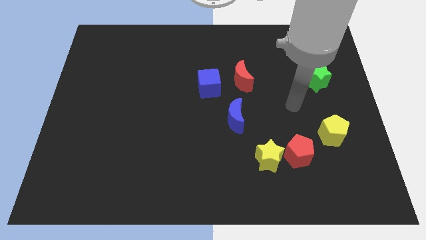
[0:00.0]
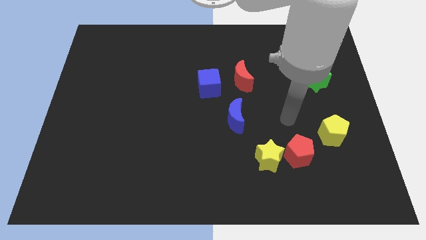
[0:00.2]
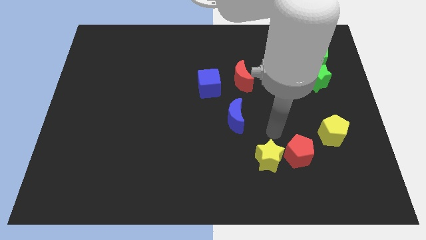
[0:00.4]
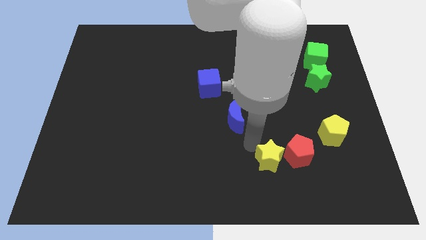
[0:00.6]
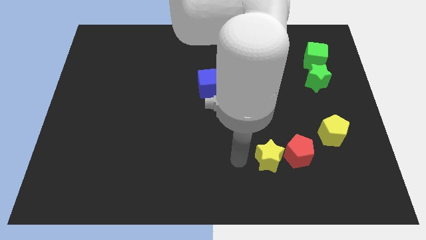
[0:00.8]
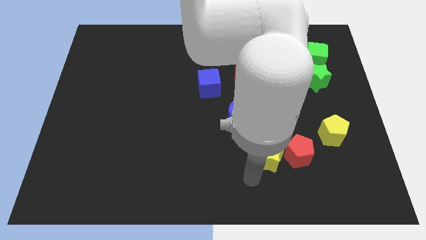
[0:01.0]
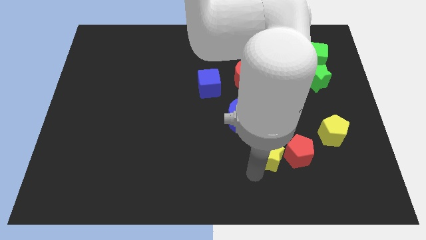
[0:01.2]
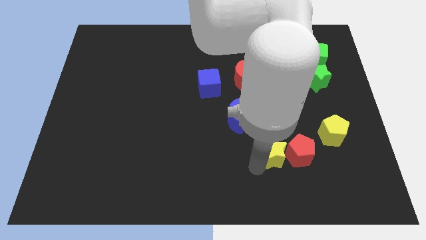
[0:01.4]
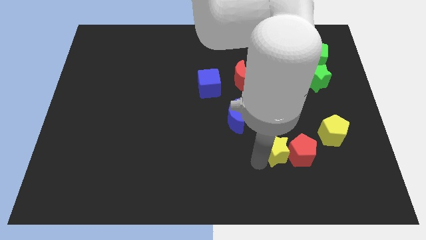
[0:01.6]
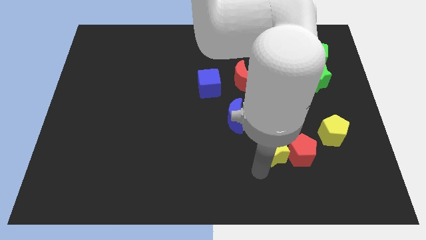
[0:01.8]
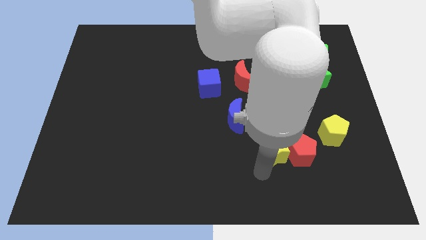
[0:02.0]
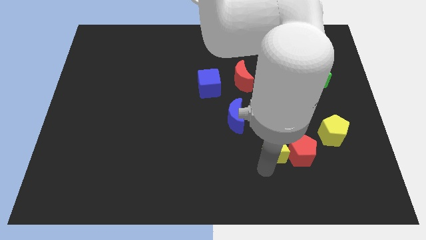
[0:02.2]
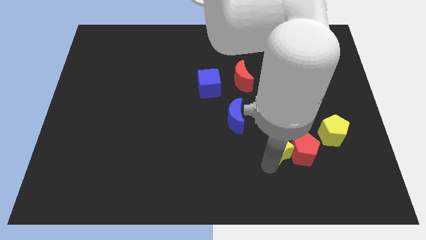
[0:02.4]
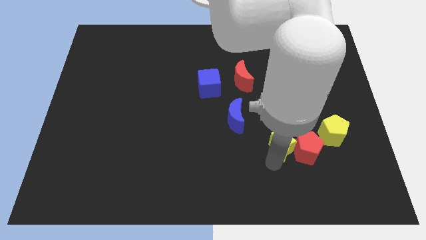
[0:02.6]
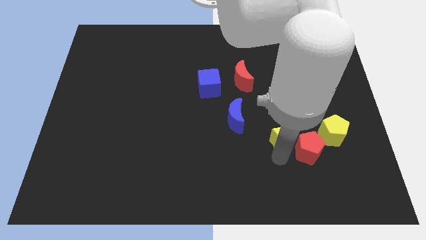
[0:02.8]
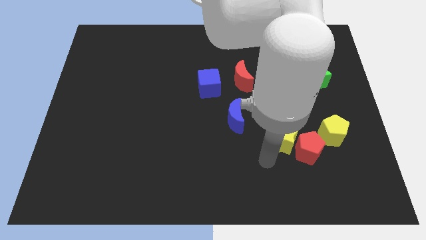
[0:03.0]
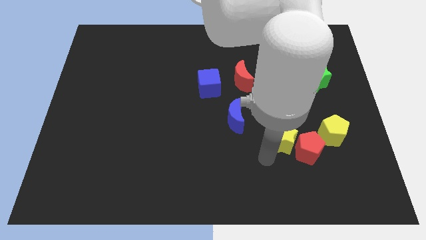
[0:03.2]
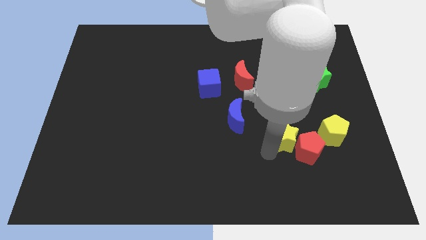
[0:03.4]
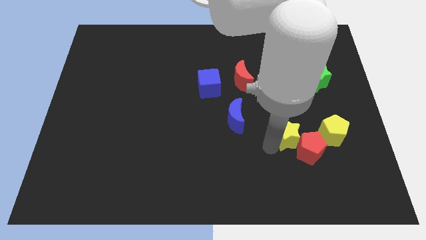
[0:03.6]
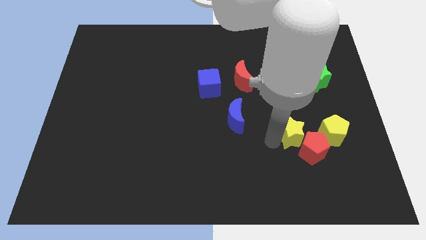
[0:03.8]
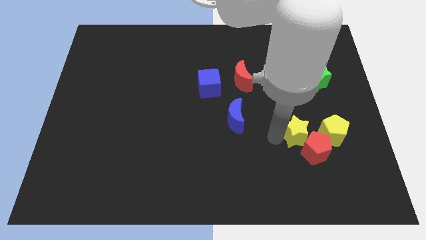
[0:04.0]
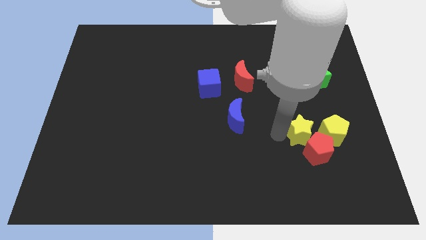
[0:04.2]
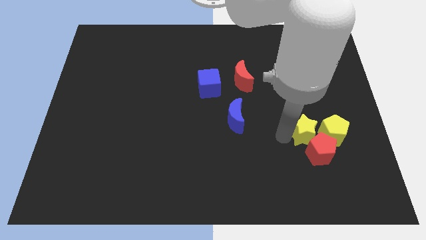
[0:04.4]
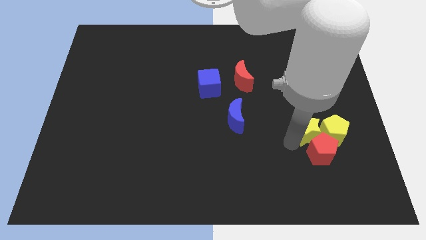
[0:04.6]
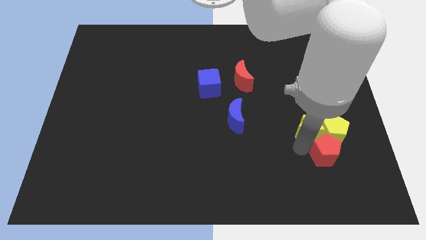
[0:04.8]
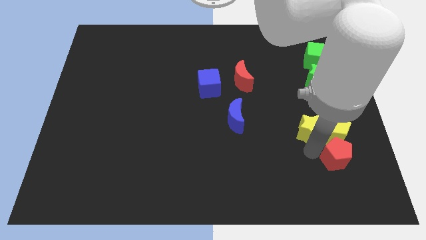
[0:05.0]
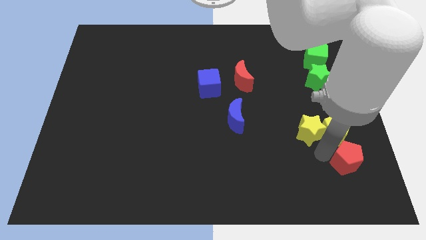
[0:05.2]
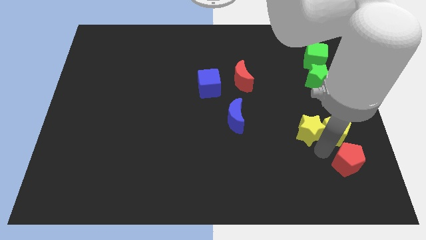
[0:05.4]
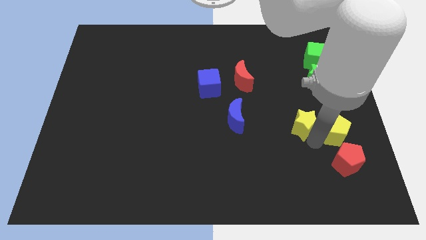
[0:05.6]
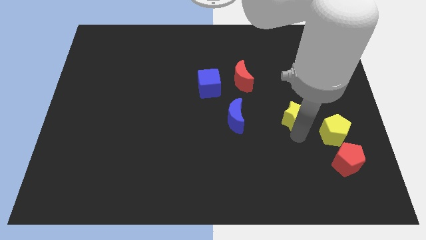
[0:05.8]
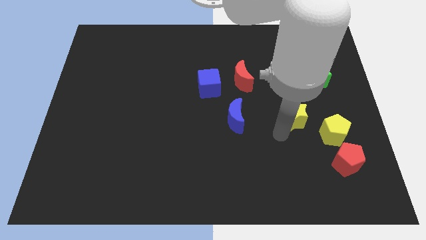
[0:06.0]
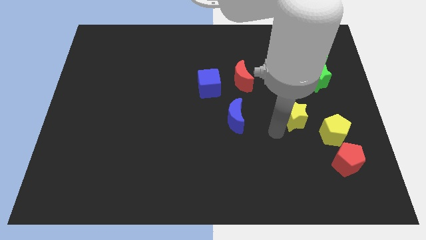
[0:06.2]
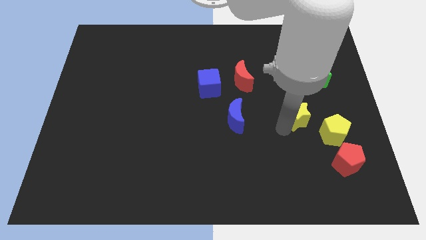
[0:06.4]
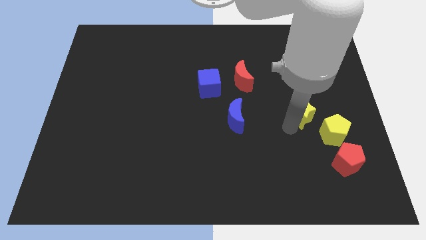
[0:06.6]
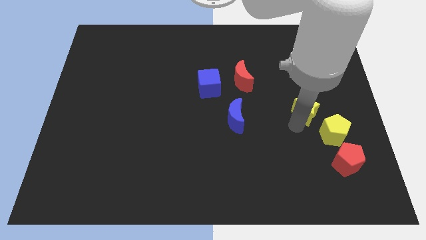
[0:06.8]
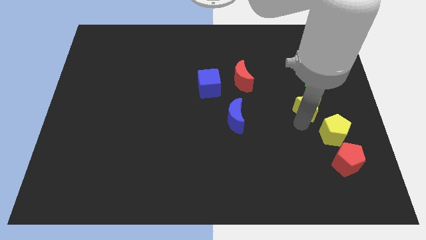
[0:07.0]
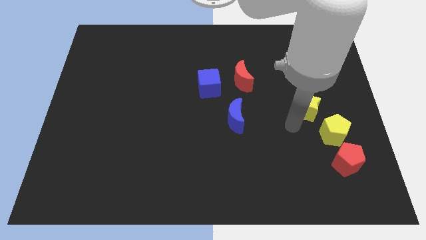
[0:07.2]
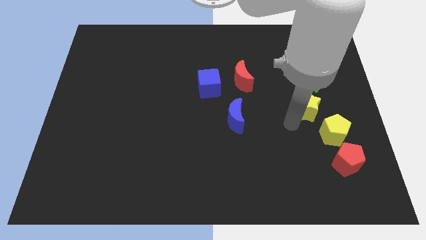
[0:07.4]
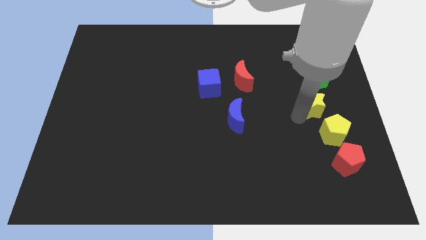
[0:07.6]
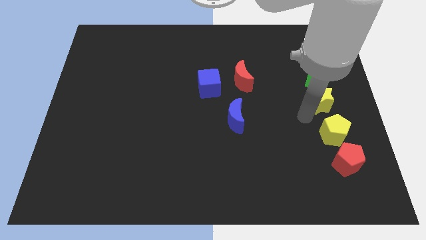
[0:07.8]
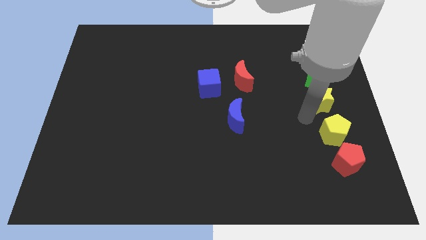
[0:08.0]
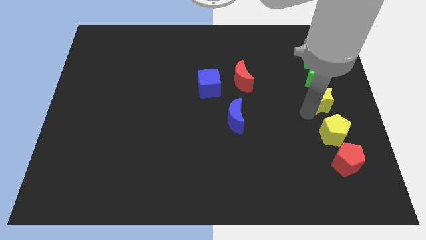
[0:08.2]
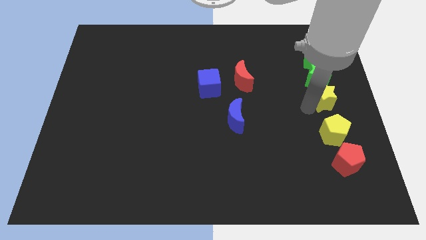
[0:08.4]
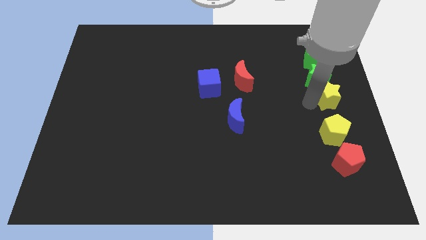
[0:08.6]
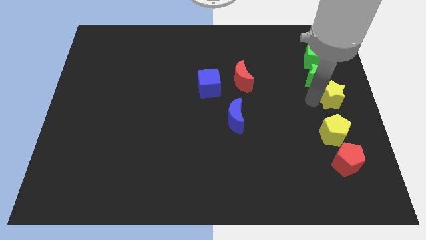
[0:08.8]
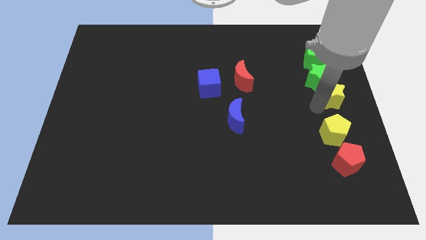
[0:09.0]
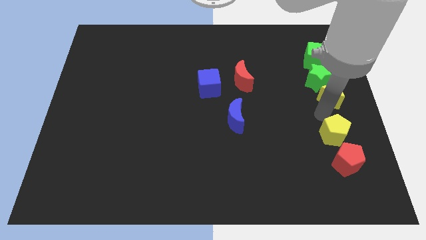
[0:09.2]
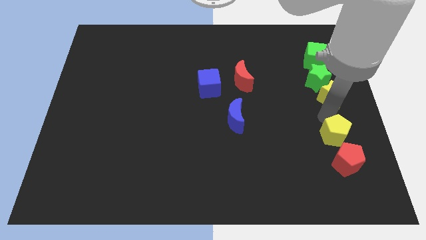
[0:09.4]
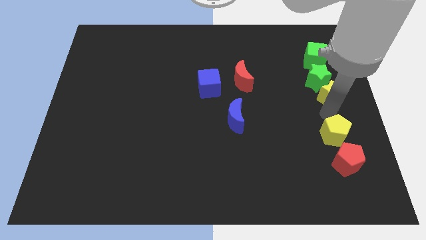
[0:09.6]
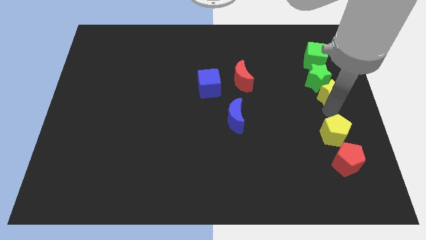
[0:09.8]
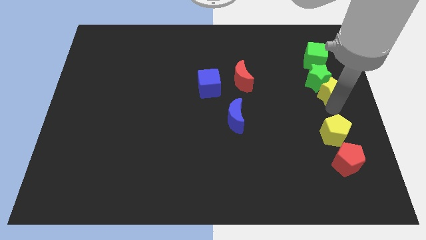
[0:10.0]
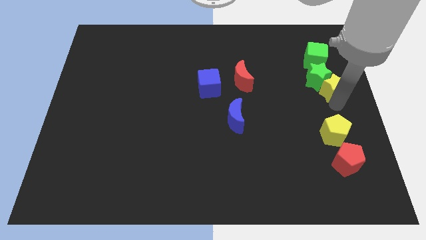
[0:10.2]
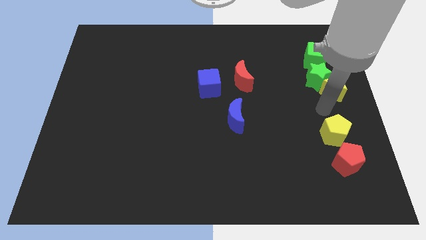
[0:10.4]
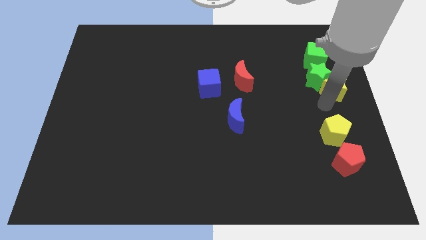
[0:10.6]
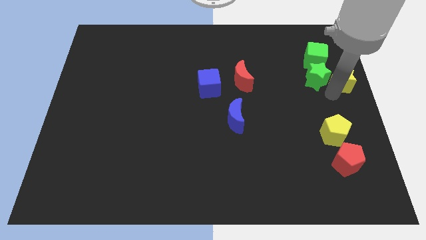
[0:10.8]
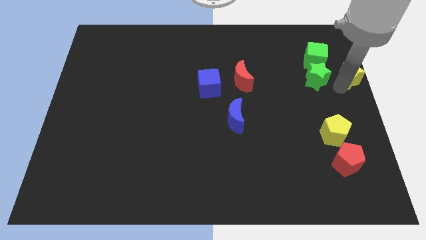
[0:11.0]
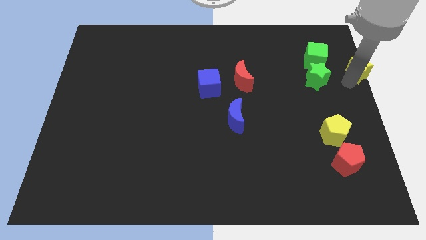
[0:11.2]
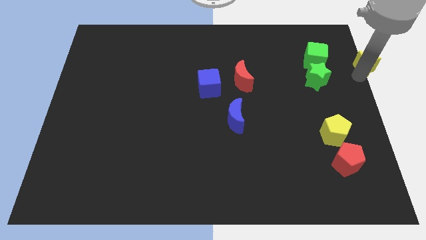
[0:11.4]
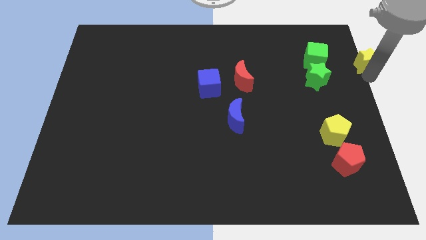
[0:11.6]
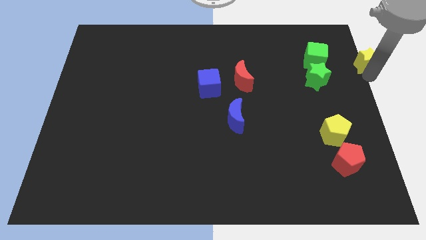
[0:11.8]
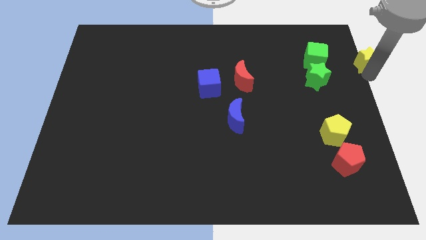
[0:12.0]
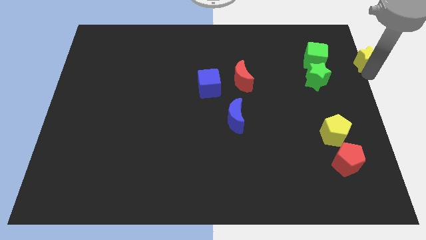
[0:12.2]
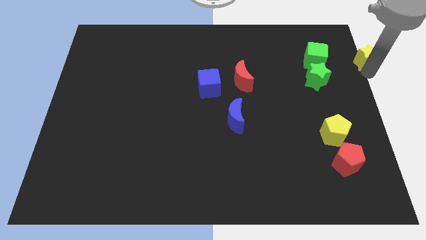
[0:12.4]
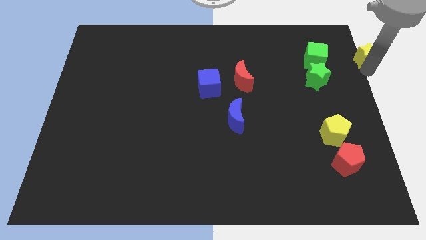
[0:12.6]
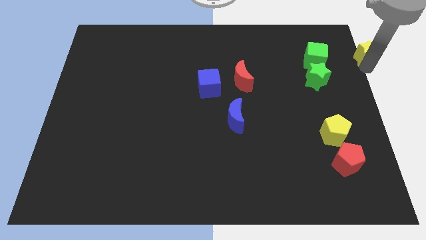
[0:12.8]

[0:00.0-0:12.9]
slide the yellow star to the top right

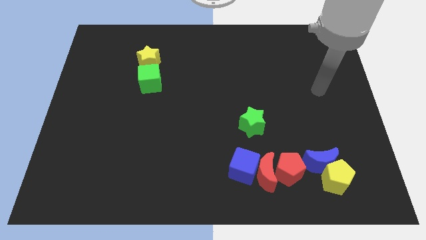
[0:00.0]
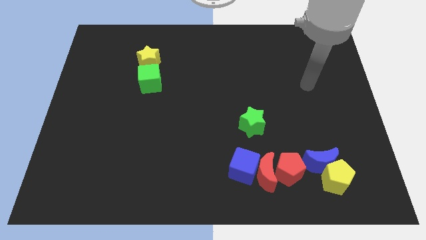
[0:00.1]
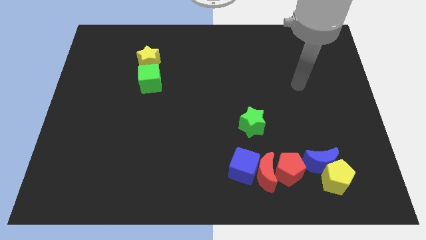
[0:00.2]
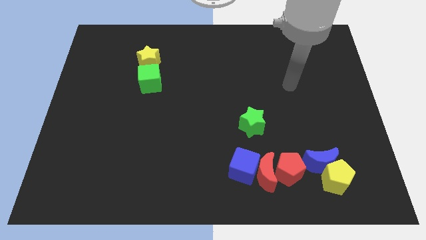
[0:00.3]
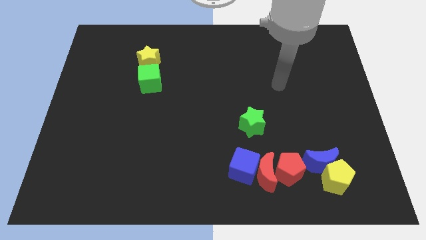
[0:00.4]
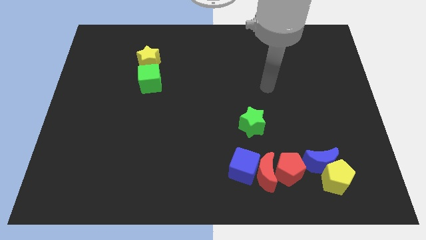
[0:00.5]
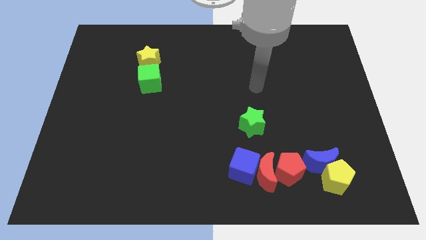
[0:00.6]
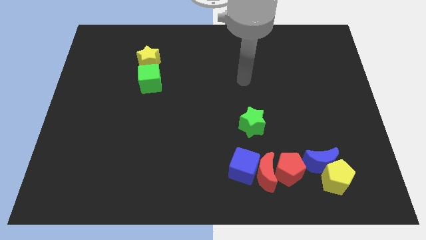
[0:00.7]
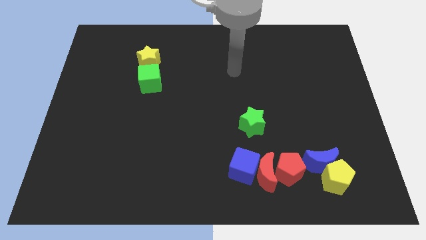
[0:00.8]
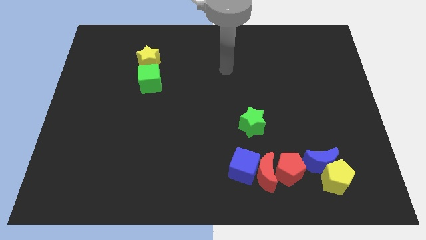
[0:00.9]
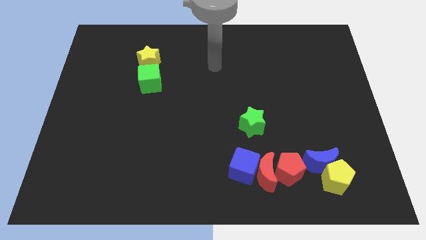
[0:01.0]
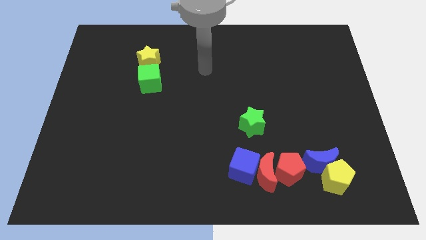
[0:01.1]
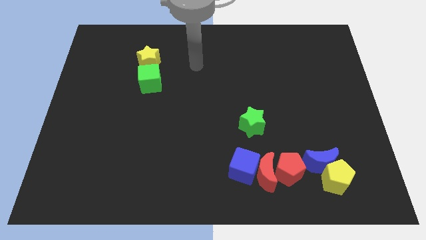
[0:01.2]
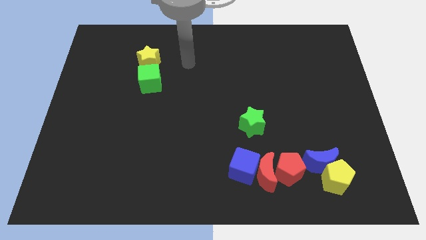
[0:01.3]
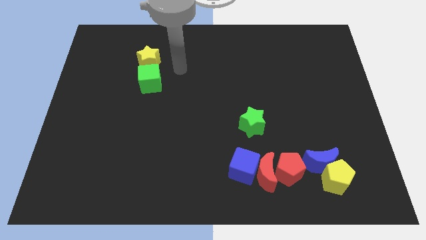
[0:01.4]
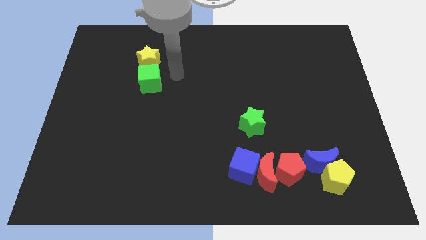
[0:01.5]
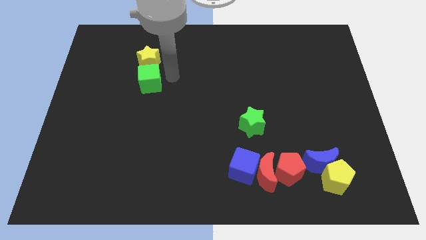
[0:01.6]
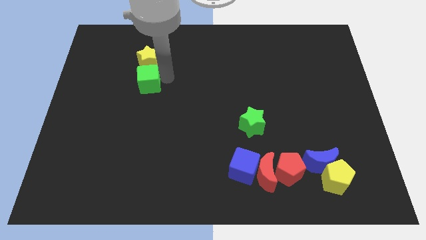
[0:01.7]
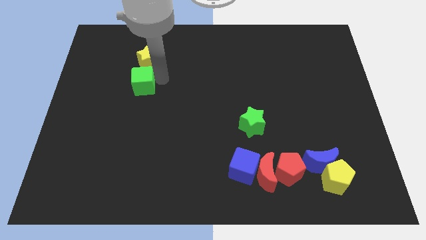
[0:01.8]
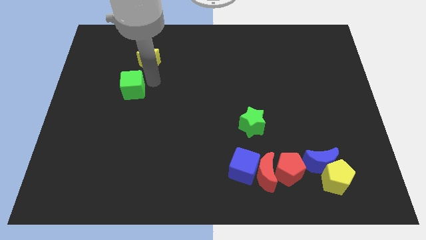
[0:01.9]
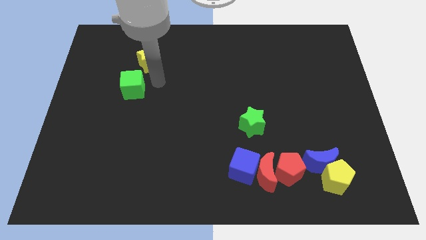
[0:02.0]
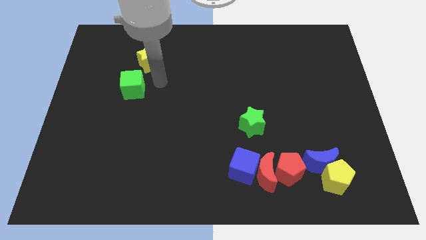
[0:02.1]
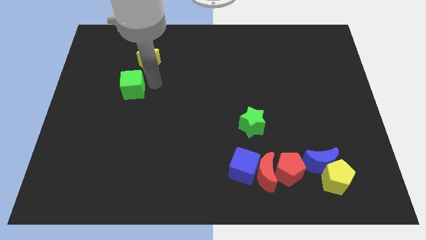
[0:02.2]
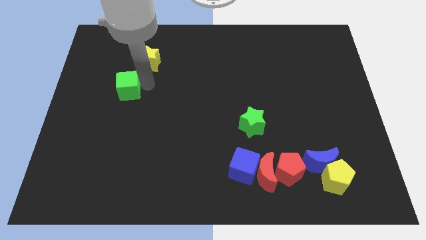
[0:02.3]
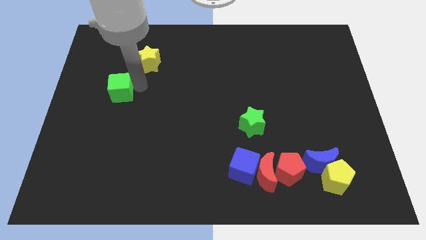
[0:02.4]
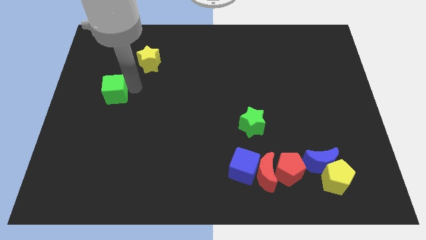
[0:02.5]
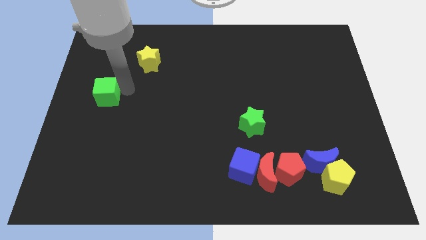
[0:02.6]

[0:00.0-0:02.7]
slide the green cube to the left side of the board
